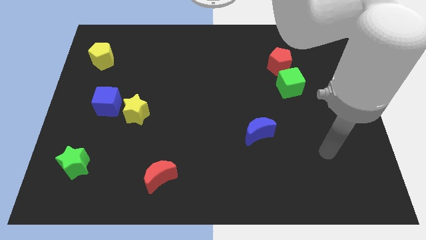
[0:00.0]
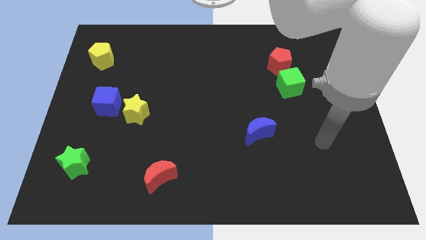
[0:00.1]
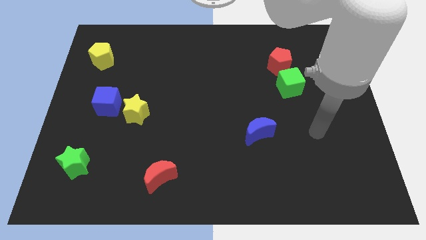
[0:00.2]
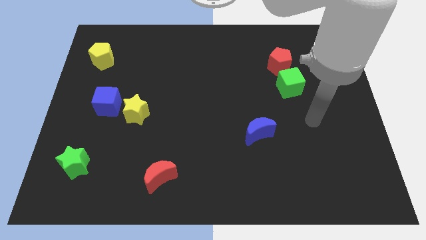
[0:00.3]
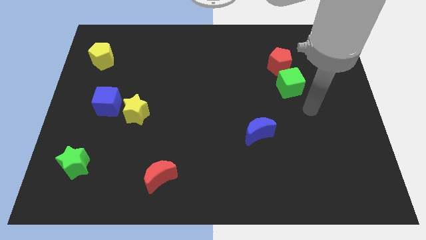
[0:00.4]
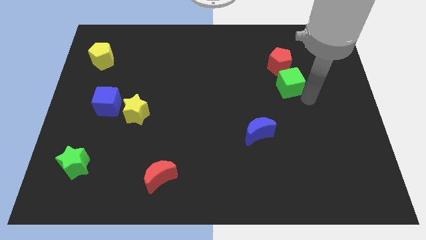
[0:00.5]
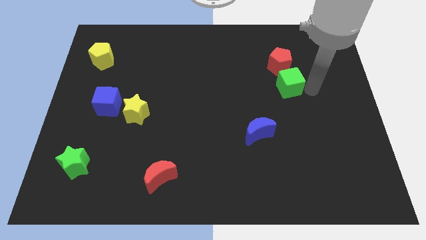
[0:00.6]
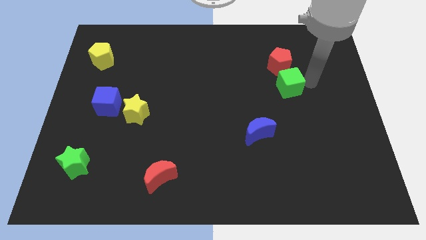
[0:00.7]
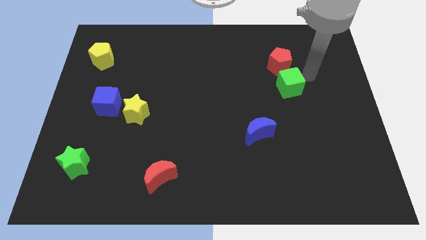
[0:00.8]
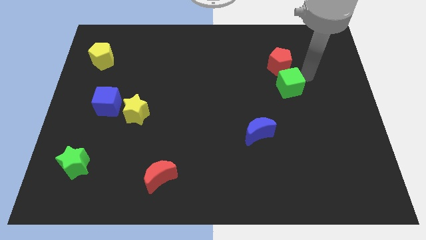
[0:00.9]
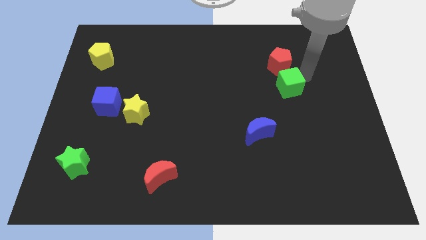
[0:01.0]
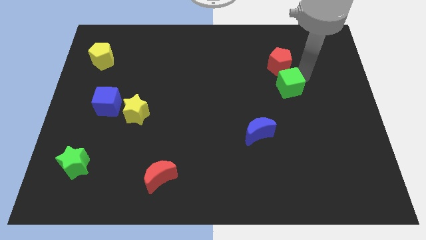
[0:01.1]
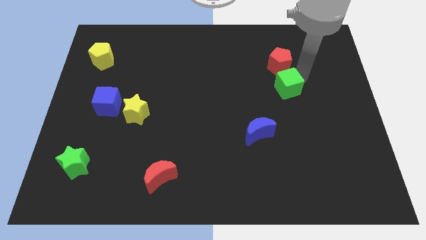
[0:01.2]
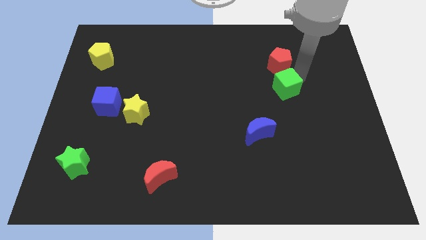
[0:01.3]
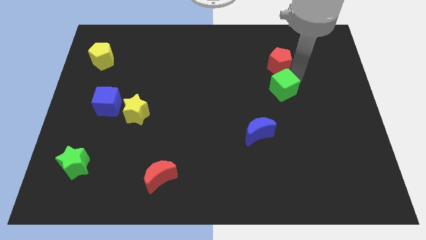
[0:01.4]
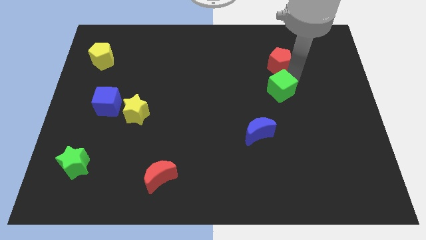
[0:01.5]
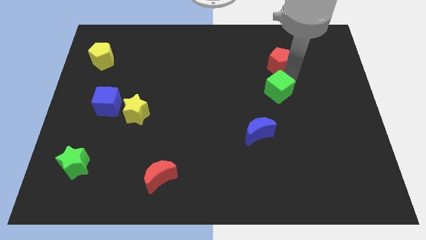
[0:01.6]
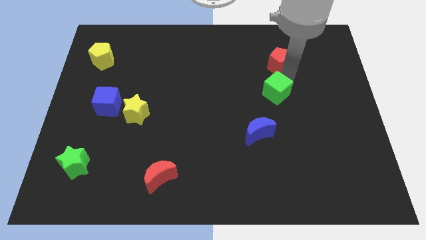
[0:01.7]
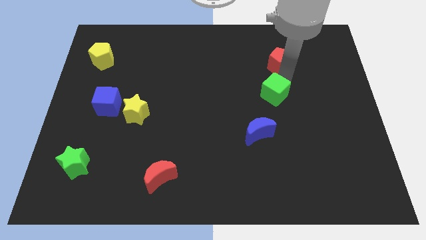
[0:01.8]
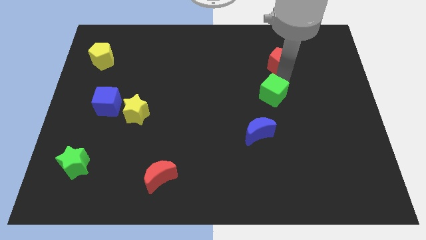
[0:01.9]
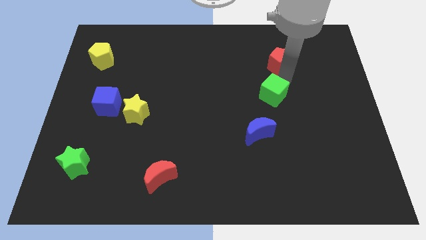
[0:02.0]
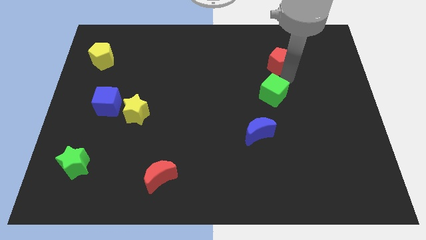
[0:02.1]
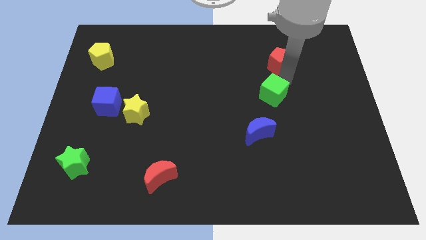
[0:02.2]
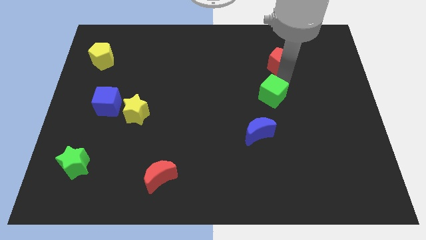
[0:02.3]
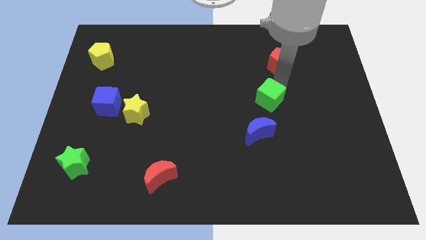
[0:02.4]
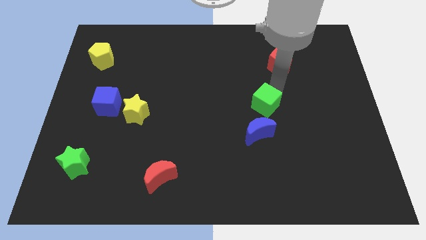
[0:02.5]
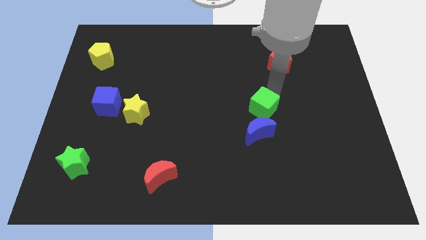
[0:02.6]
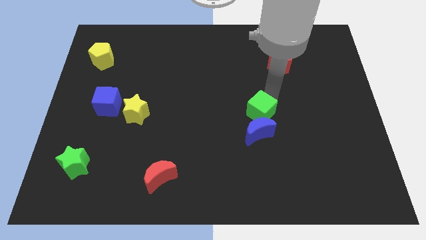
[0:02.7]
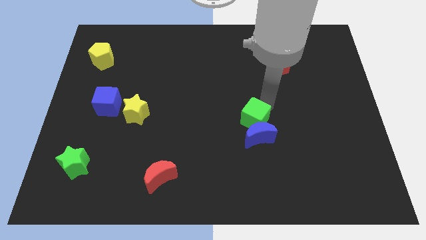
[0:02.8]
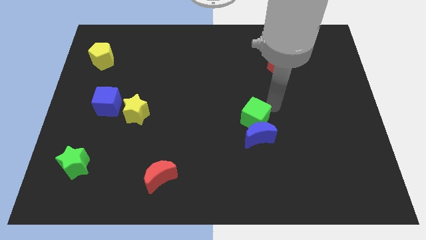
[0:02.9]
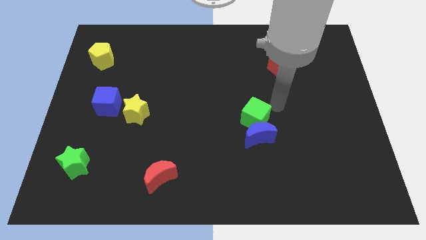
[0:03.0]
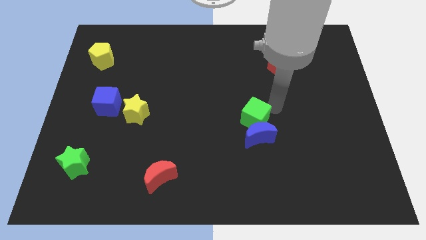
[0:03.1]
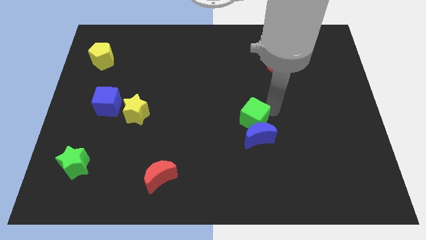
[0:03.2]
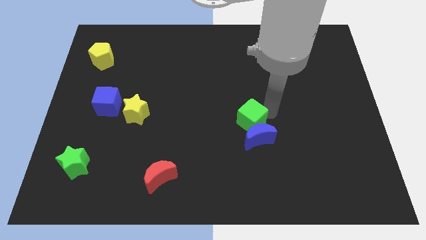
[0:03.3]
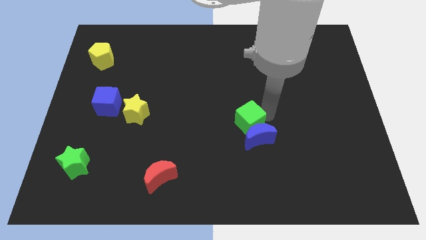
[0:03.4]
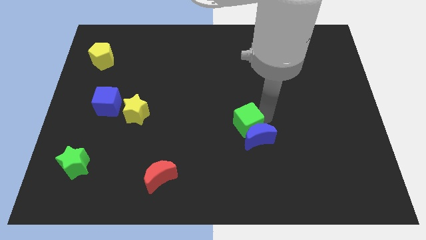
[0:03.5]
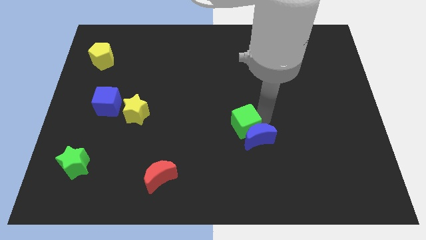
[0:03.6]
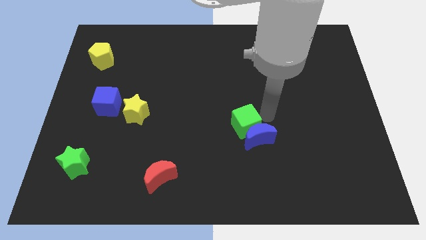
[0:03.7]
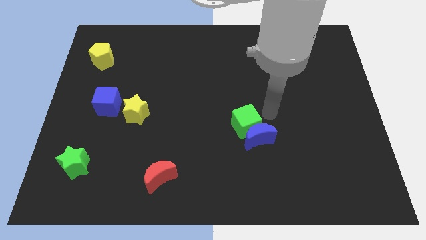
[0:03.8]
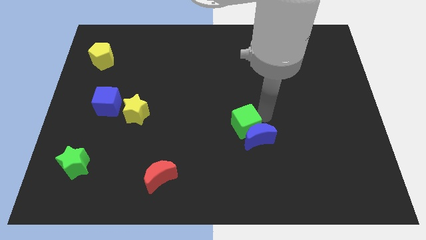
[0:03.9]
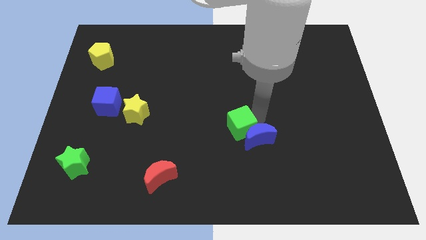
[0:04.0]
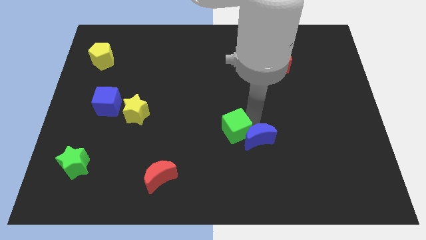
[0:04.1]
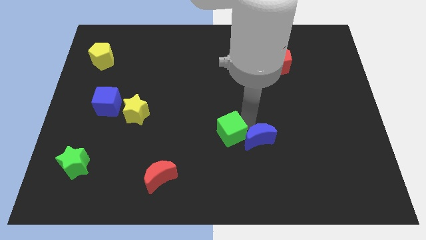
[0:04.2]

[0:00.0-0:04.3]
move the green cube down and then to the left

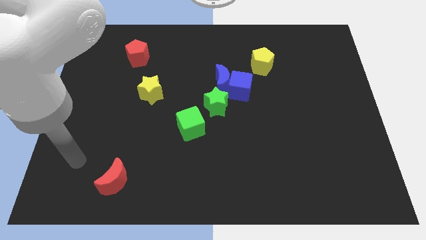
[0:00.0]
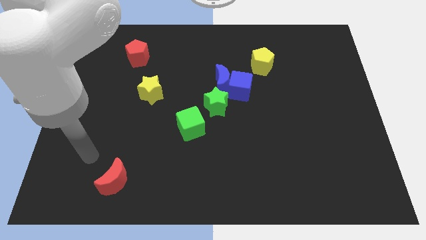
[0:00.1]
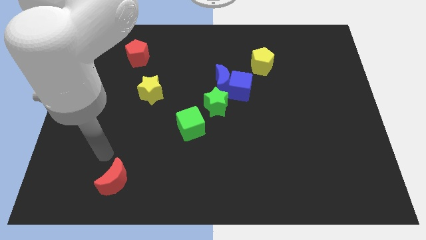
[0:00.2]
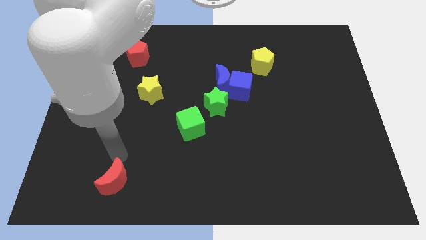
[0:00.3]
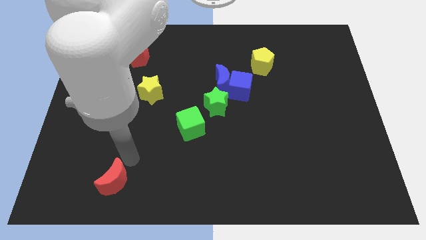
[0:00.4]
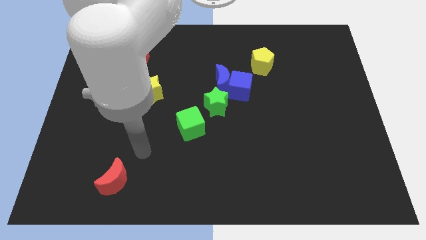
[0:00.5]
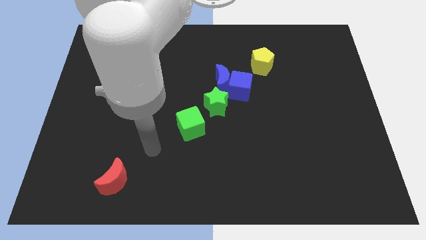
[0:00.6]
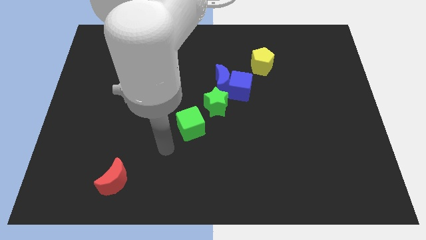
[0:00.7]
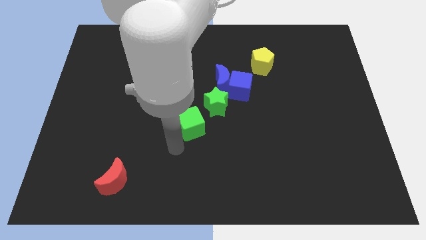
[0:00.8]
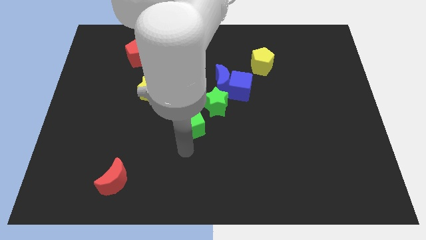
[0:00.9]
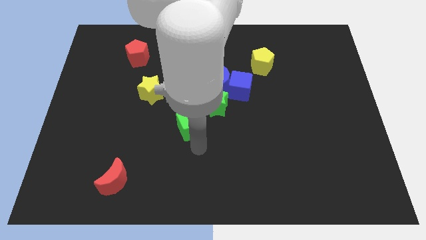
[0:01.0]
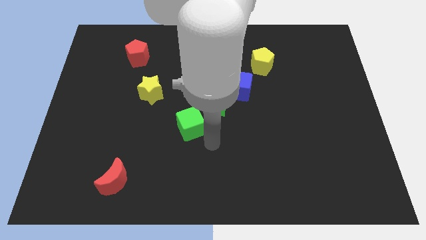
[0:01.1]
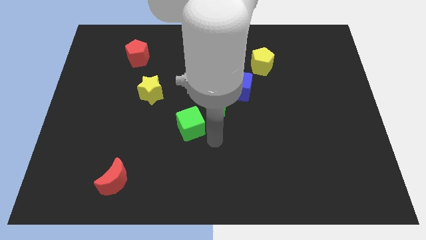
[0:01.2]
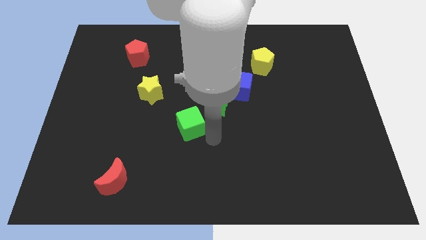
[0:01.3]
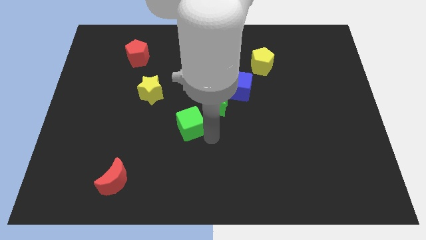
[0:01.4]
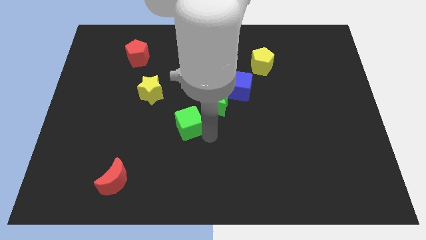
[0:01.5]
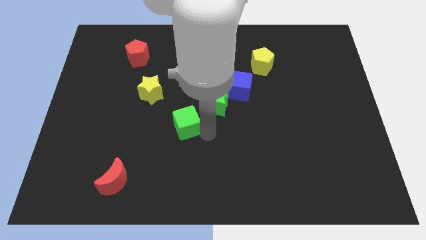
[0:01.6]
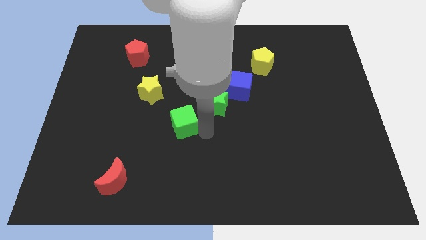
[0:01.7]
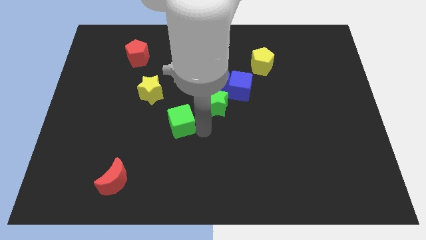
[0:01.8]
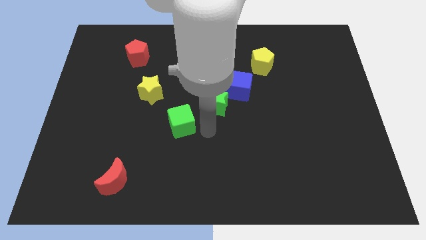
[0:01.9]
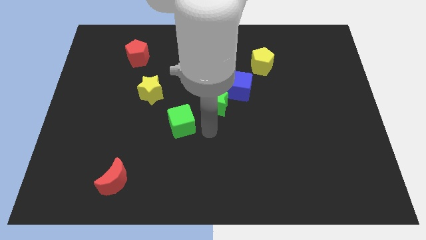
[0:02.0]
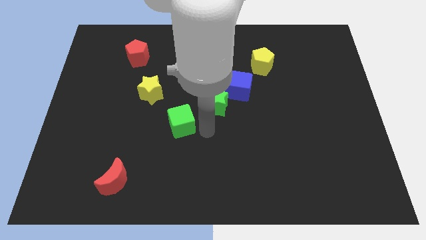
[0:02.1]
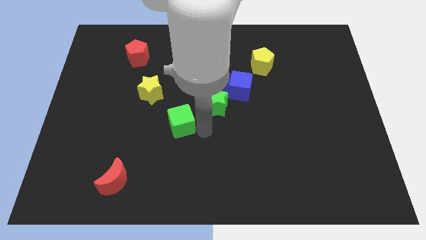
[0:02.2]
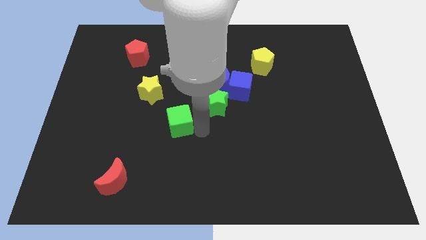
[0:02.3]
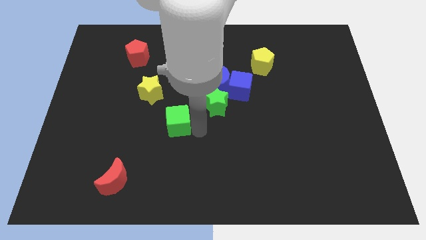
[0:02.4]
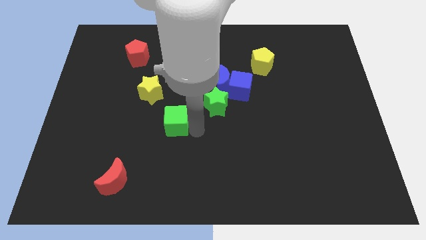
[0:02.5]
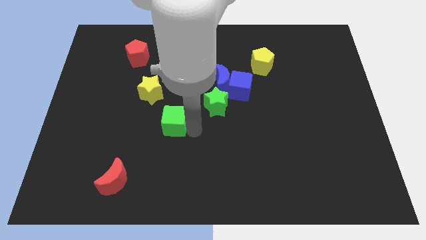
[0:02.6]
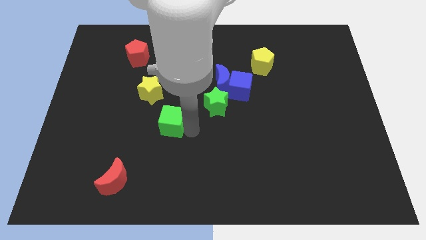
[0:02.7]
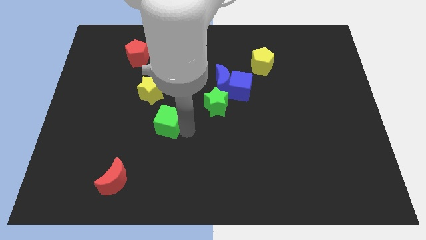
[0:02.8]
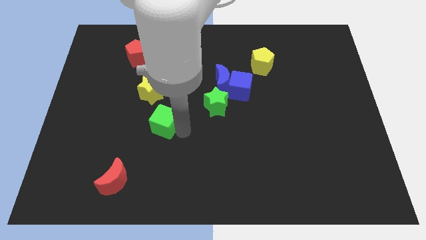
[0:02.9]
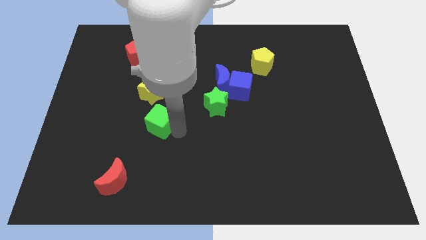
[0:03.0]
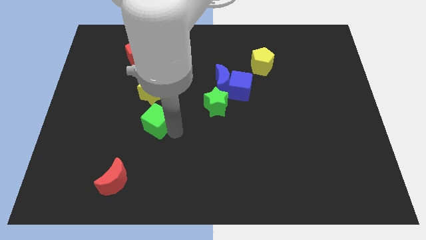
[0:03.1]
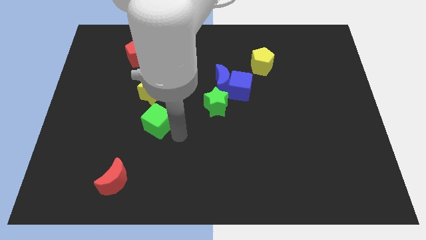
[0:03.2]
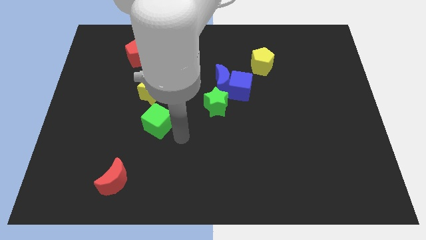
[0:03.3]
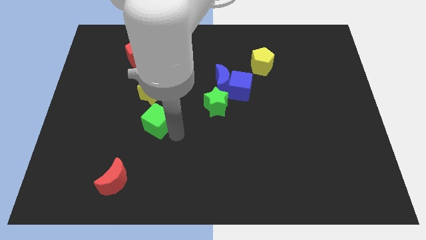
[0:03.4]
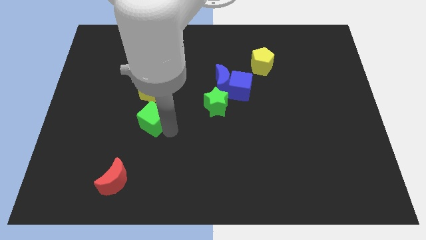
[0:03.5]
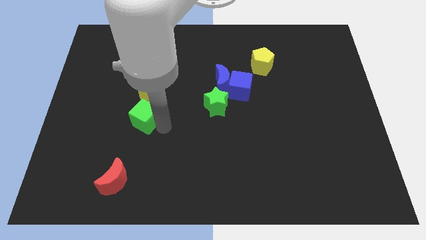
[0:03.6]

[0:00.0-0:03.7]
slightly slide the green cube diagonally up and to the left
